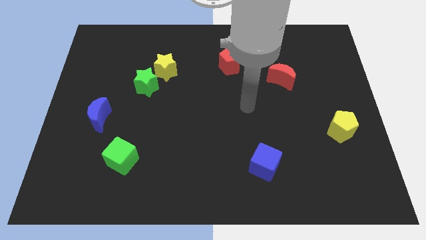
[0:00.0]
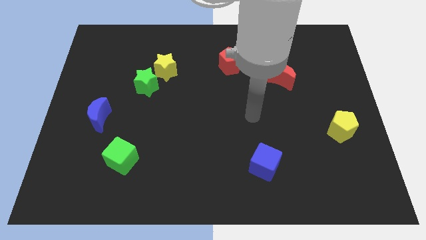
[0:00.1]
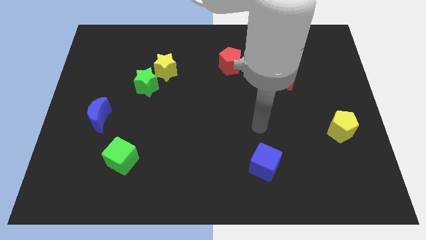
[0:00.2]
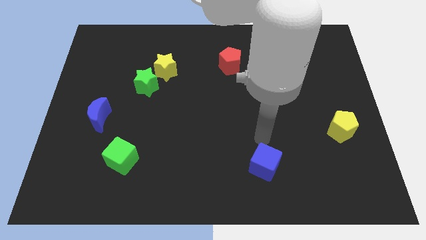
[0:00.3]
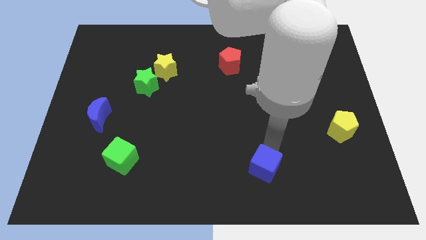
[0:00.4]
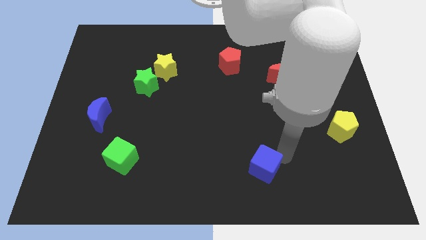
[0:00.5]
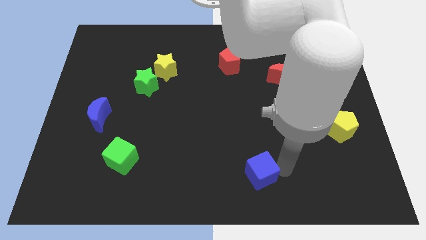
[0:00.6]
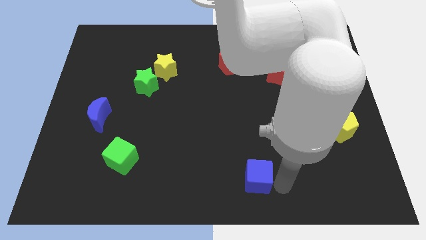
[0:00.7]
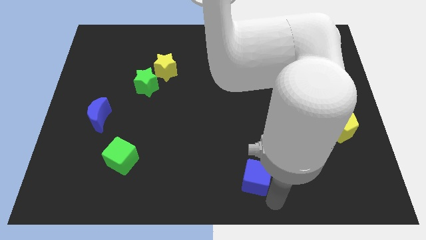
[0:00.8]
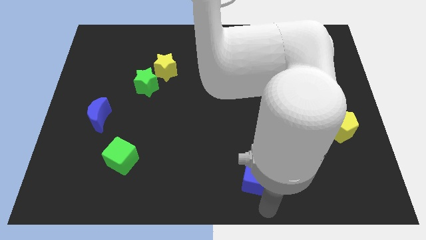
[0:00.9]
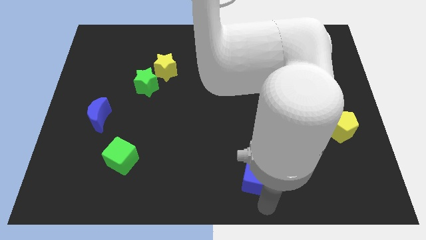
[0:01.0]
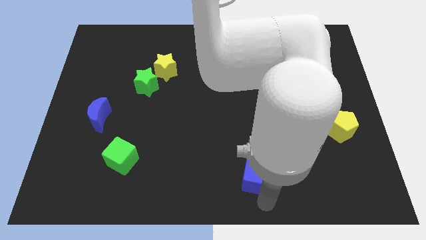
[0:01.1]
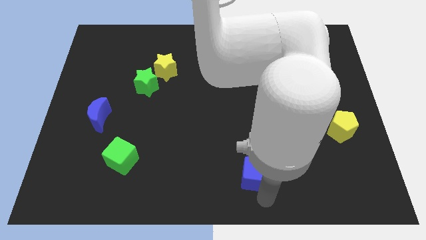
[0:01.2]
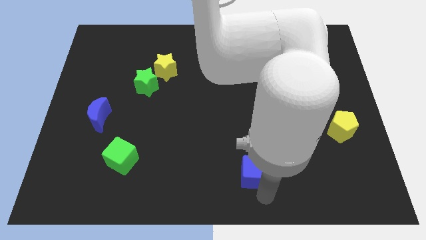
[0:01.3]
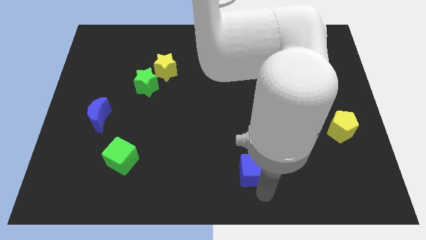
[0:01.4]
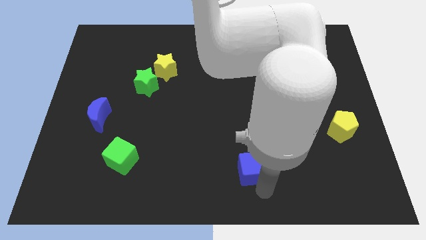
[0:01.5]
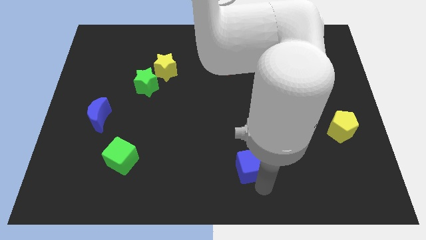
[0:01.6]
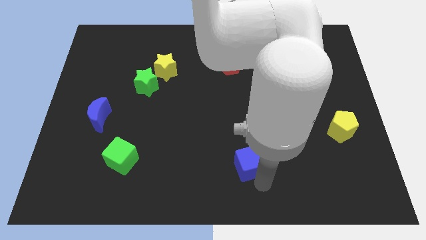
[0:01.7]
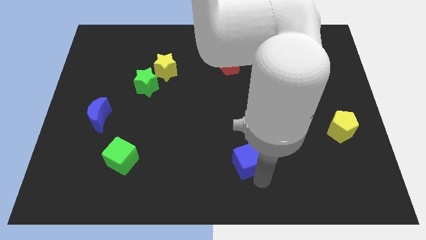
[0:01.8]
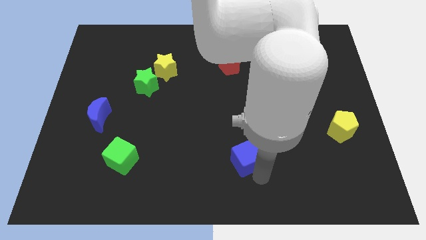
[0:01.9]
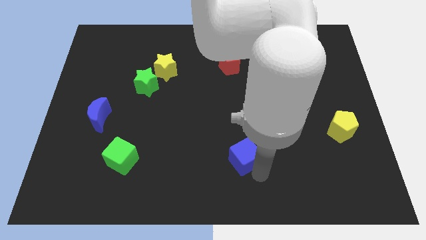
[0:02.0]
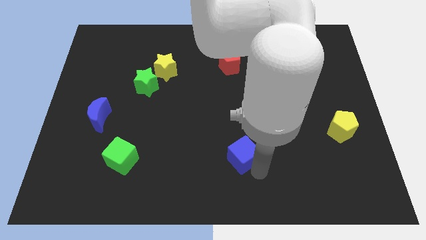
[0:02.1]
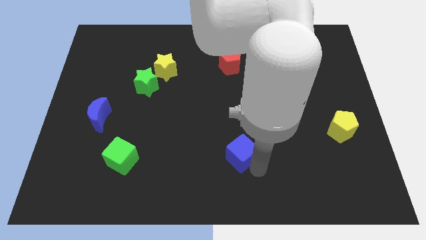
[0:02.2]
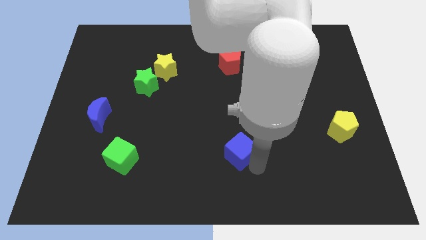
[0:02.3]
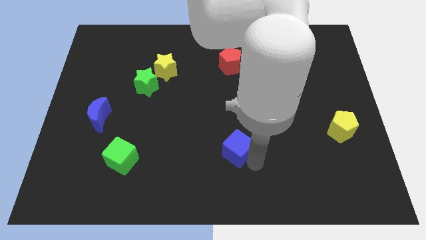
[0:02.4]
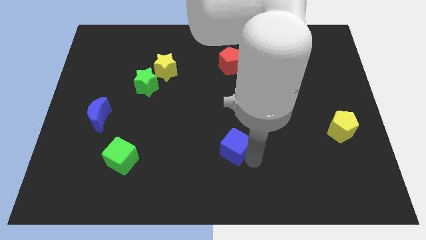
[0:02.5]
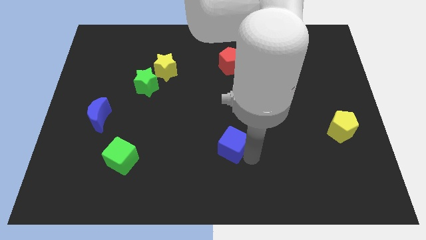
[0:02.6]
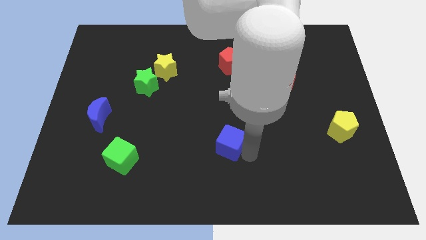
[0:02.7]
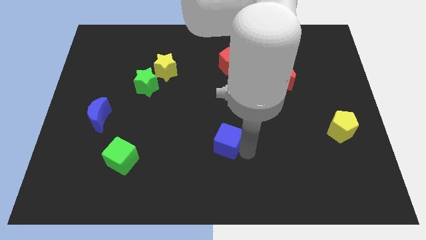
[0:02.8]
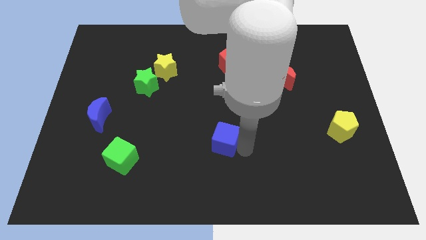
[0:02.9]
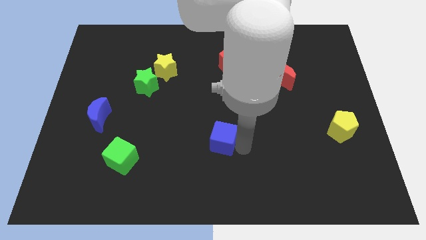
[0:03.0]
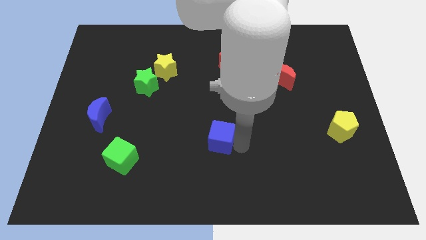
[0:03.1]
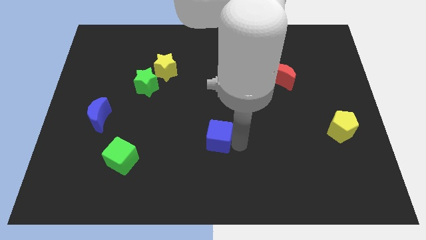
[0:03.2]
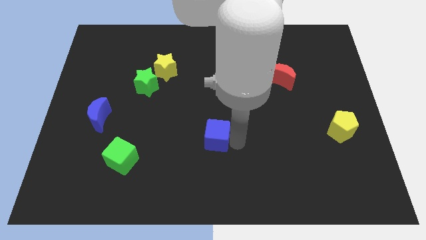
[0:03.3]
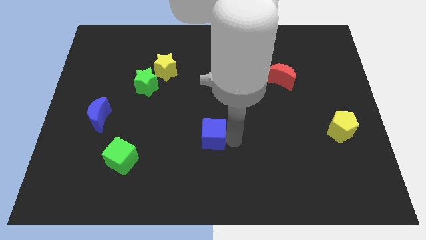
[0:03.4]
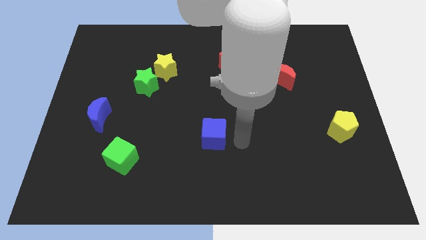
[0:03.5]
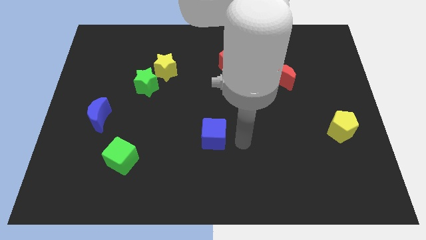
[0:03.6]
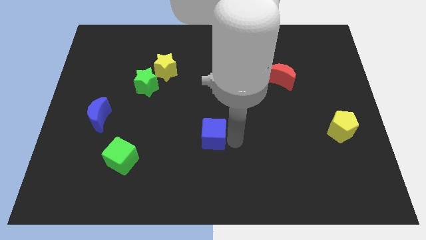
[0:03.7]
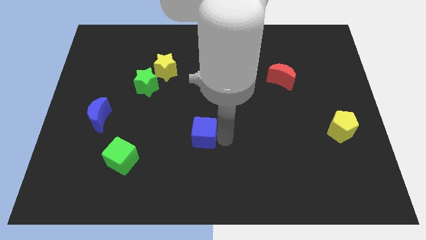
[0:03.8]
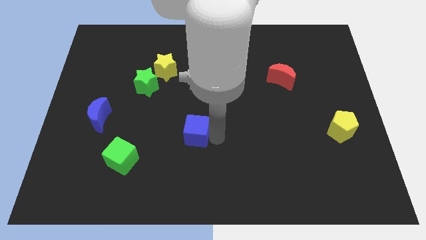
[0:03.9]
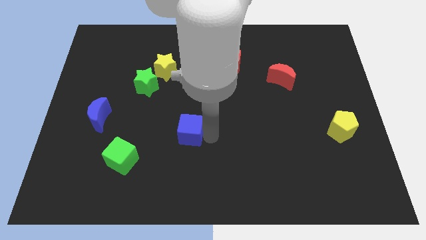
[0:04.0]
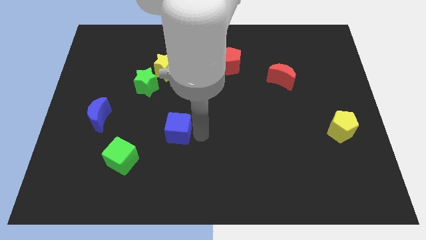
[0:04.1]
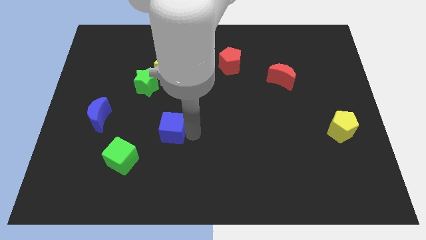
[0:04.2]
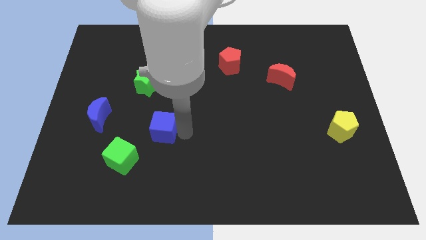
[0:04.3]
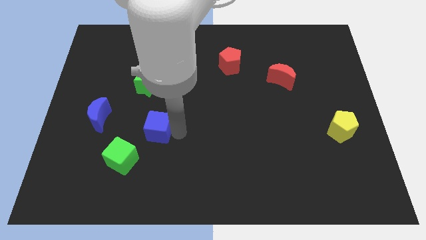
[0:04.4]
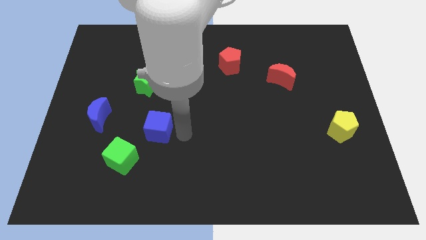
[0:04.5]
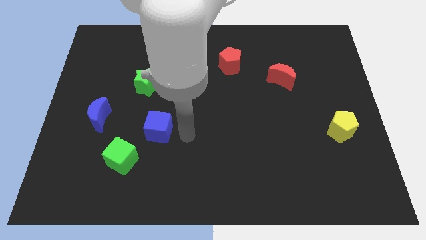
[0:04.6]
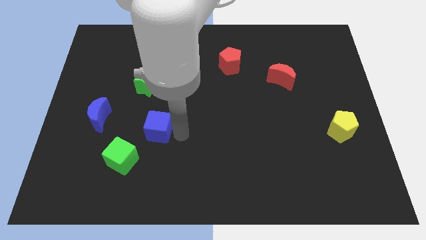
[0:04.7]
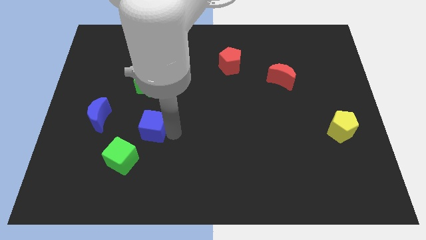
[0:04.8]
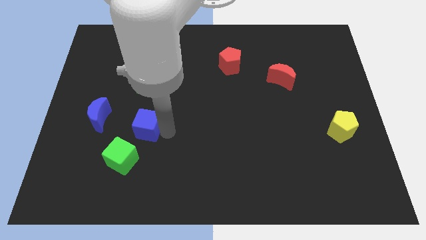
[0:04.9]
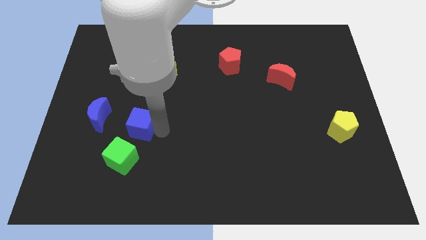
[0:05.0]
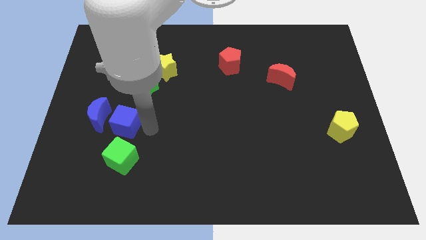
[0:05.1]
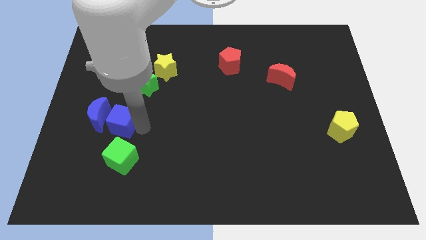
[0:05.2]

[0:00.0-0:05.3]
move the blue cube close to the blue moon

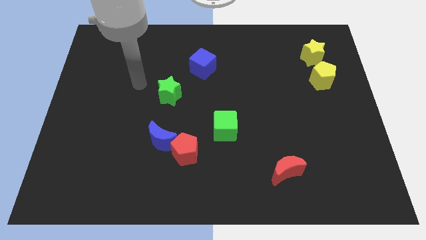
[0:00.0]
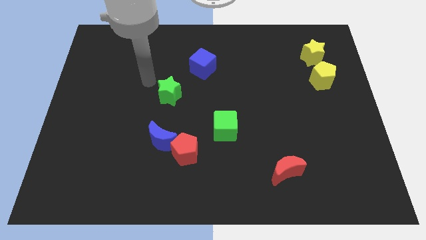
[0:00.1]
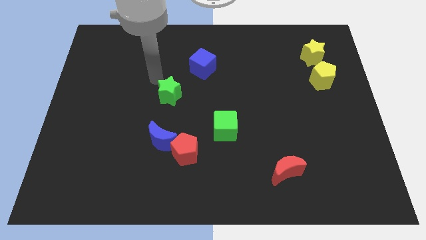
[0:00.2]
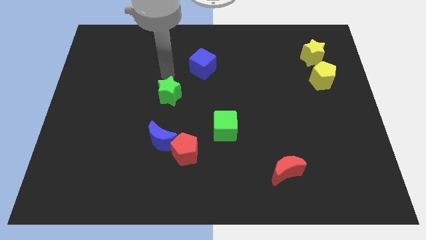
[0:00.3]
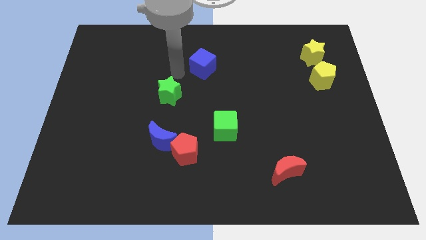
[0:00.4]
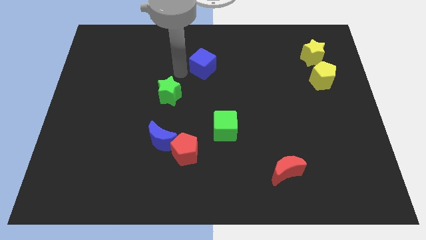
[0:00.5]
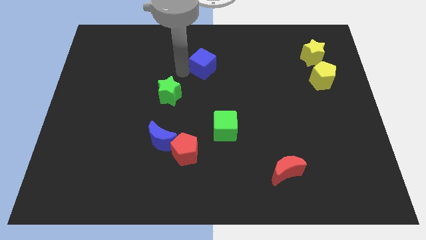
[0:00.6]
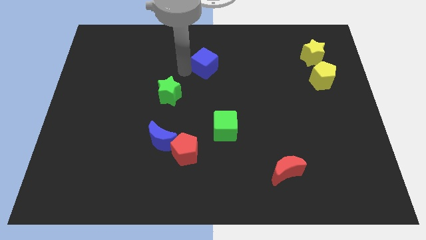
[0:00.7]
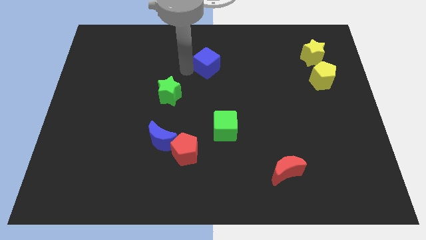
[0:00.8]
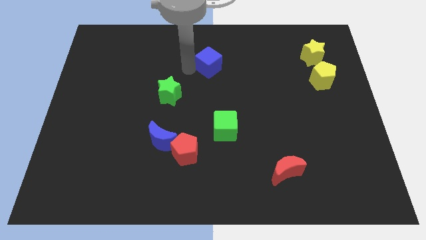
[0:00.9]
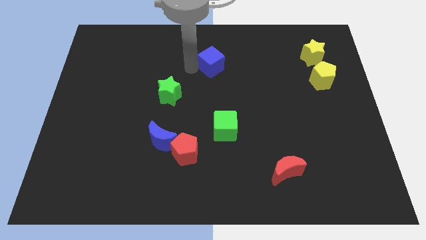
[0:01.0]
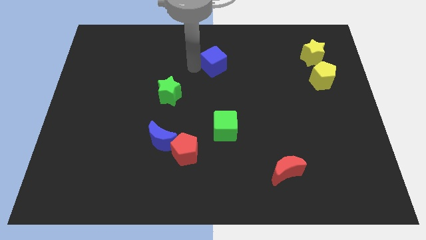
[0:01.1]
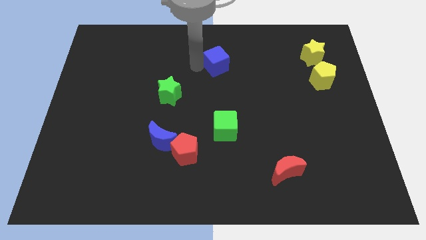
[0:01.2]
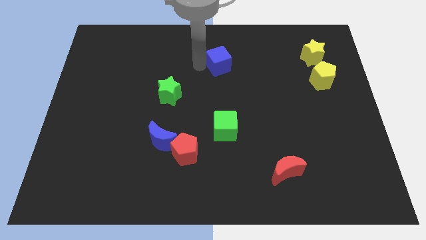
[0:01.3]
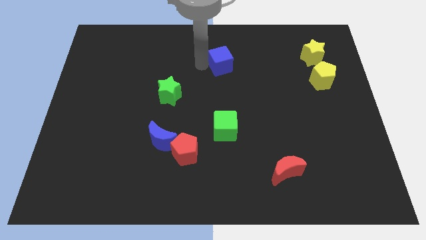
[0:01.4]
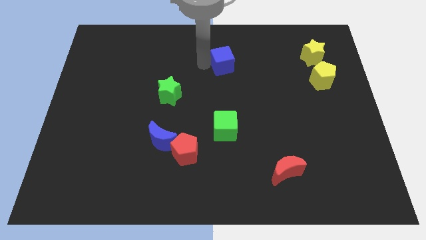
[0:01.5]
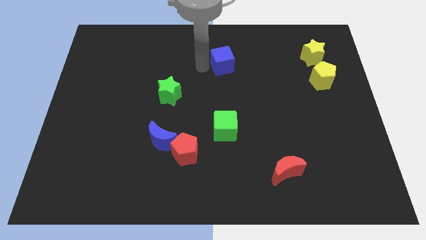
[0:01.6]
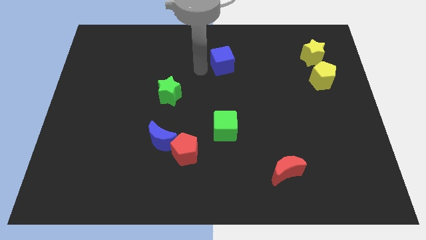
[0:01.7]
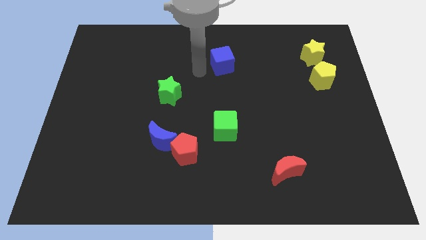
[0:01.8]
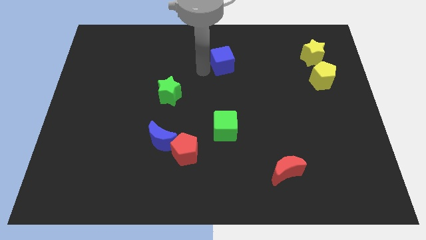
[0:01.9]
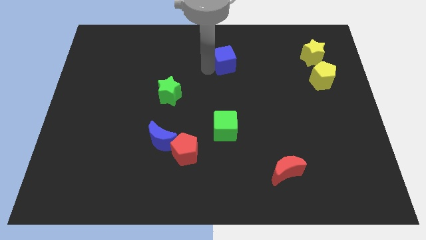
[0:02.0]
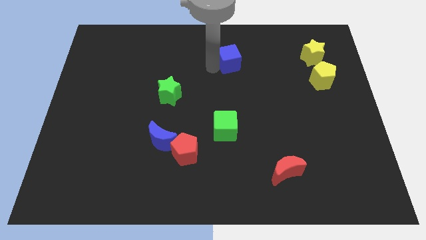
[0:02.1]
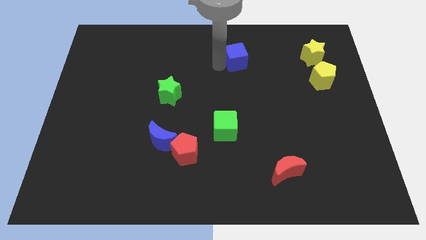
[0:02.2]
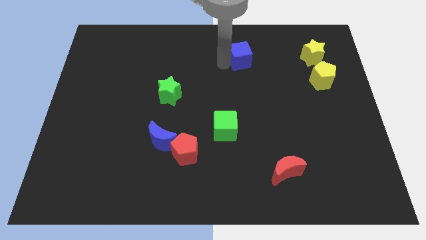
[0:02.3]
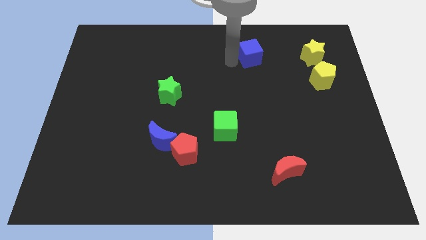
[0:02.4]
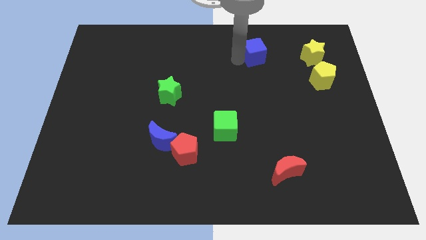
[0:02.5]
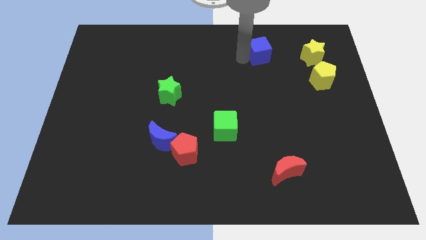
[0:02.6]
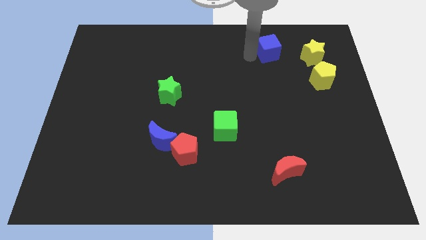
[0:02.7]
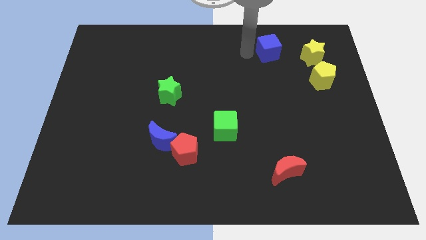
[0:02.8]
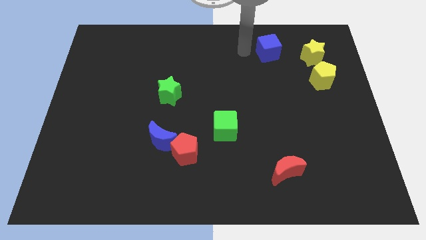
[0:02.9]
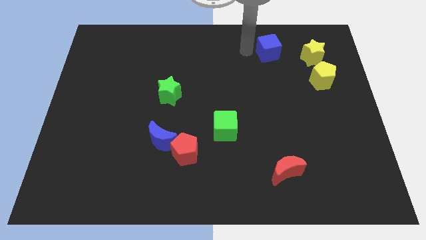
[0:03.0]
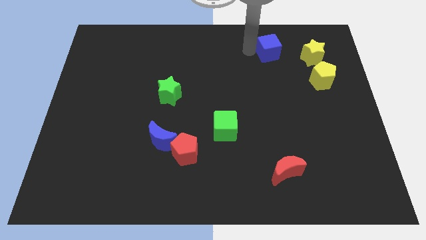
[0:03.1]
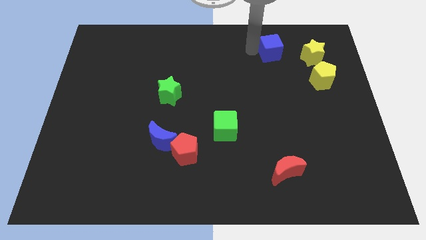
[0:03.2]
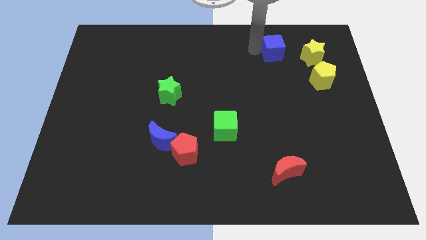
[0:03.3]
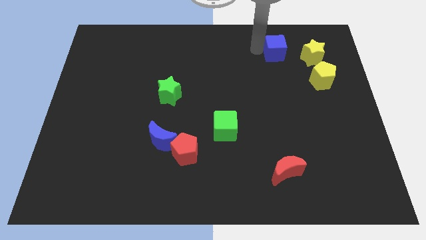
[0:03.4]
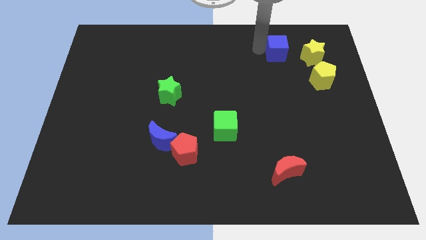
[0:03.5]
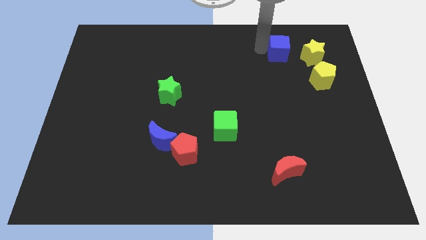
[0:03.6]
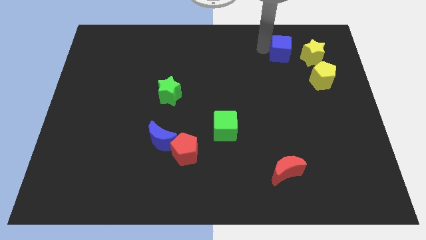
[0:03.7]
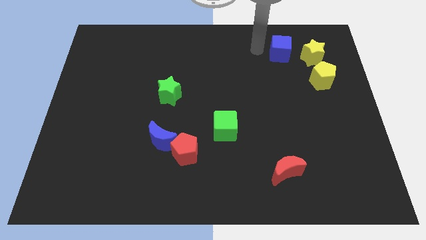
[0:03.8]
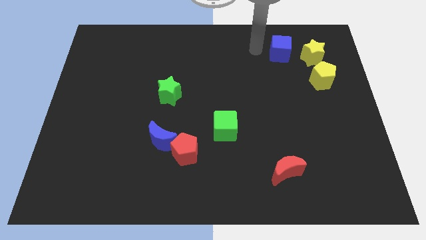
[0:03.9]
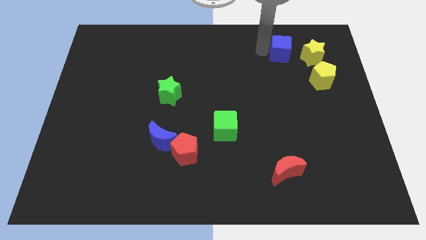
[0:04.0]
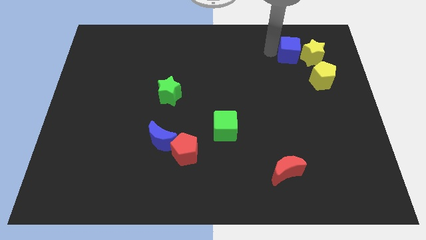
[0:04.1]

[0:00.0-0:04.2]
push the blue cube next to the yellow star
